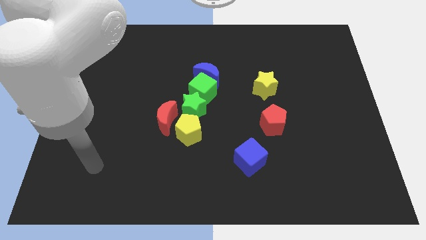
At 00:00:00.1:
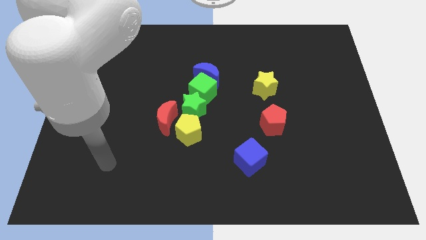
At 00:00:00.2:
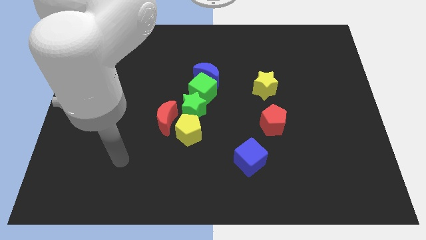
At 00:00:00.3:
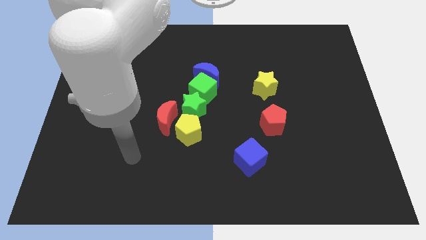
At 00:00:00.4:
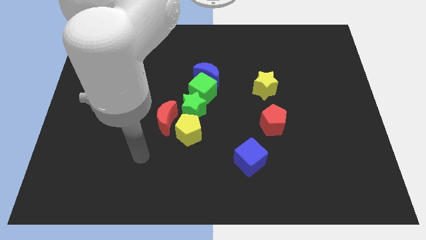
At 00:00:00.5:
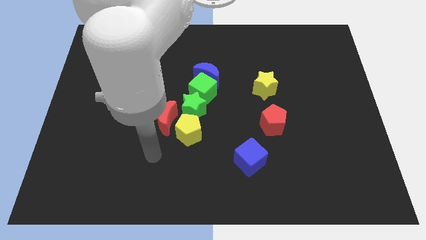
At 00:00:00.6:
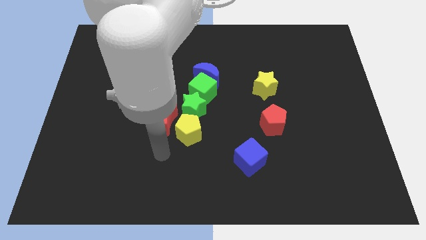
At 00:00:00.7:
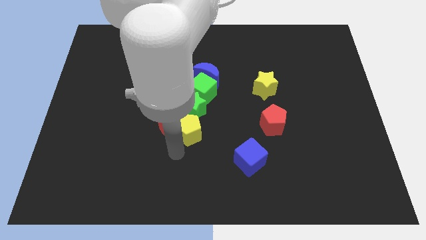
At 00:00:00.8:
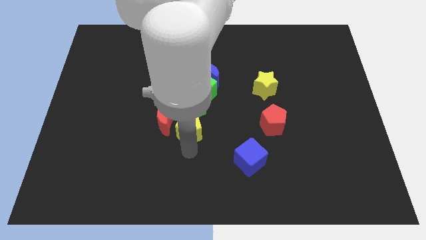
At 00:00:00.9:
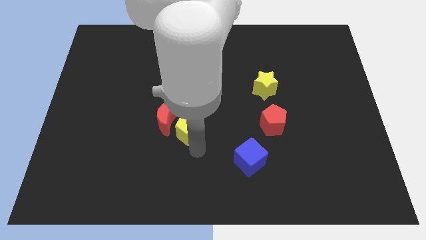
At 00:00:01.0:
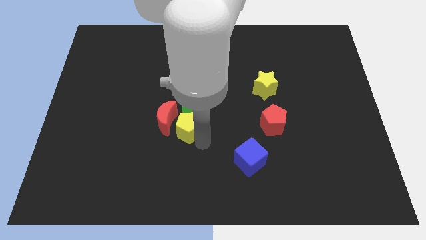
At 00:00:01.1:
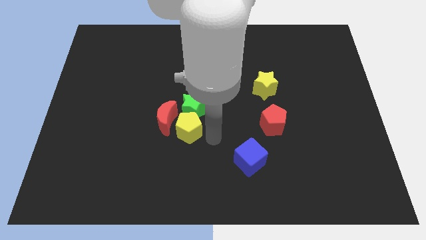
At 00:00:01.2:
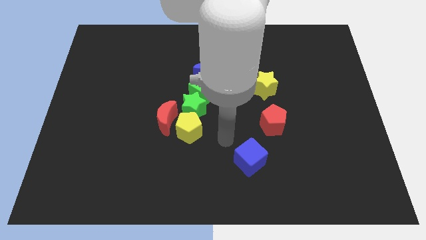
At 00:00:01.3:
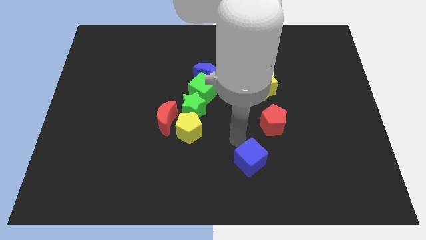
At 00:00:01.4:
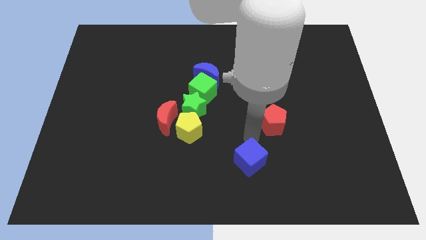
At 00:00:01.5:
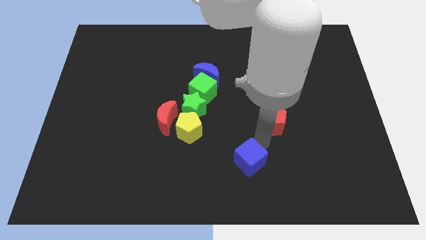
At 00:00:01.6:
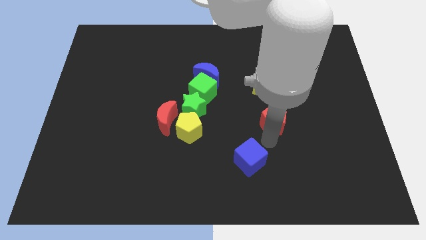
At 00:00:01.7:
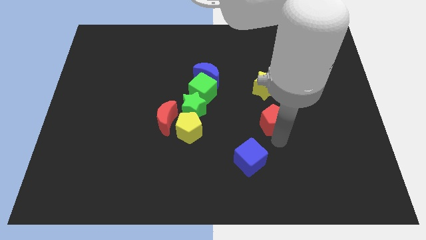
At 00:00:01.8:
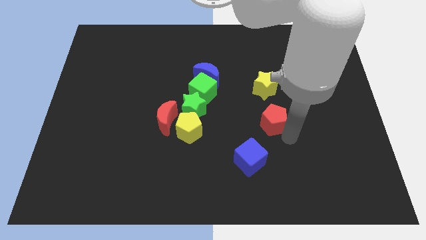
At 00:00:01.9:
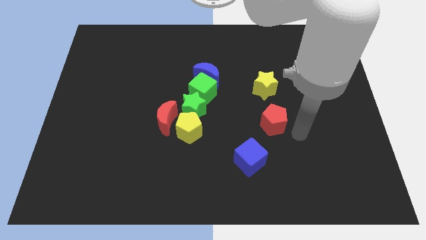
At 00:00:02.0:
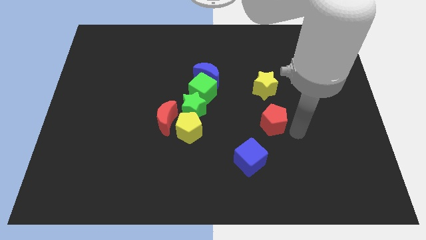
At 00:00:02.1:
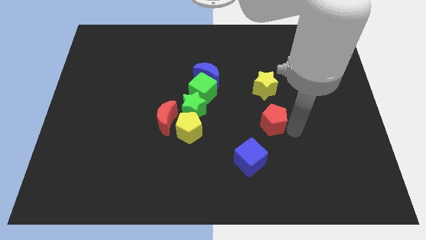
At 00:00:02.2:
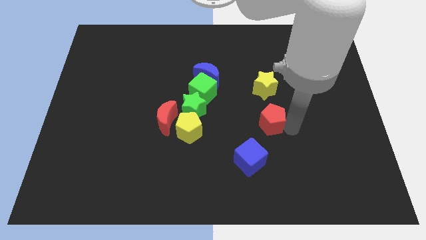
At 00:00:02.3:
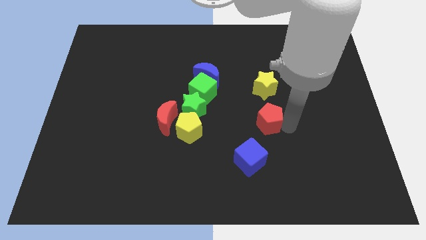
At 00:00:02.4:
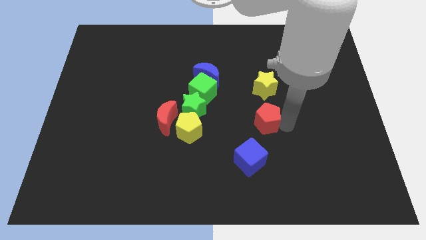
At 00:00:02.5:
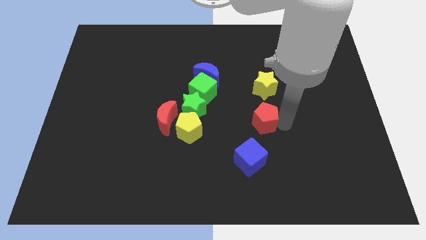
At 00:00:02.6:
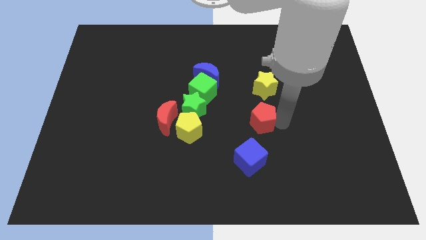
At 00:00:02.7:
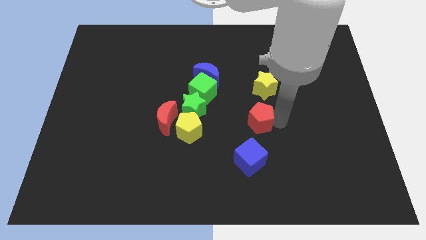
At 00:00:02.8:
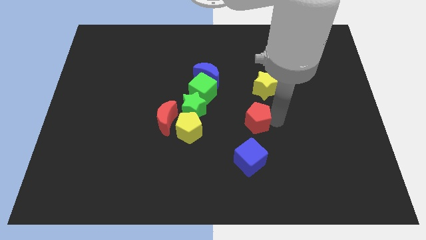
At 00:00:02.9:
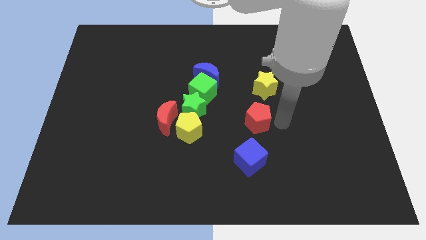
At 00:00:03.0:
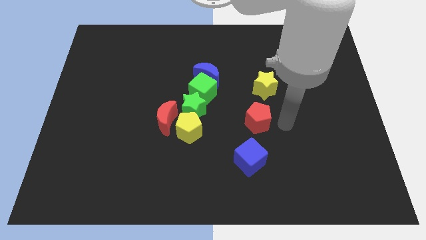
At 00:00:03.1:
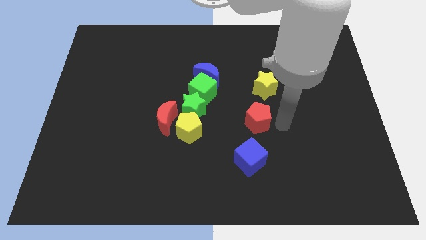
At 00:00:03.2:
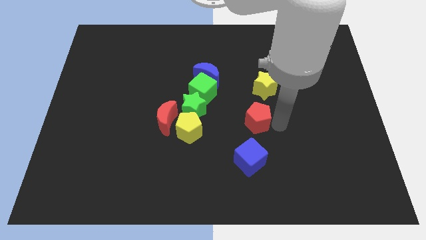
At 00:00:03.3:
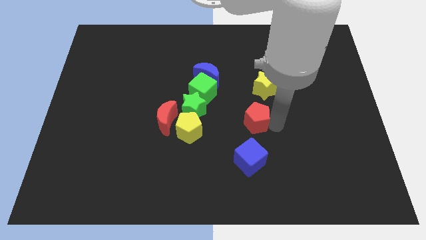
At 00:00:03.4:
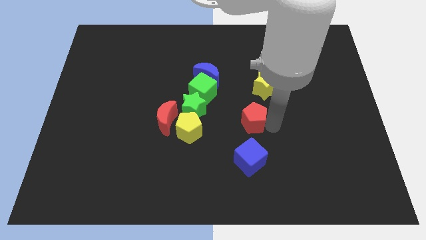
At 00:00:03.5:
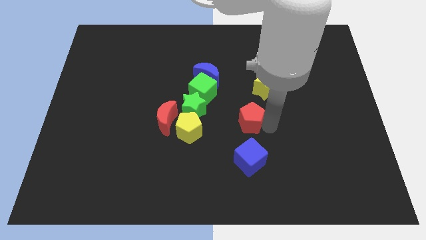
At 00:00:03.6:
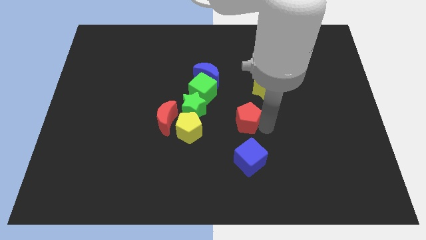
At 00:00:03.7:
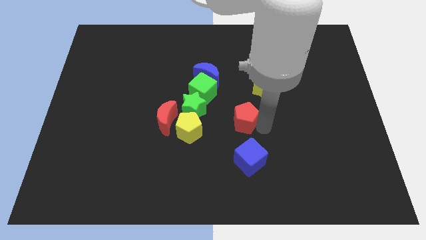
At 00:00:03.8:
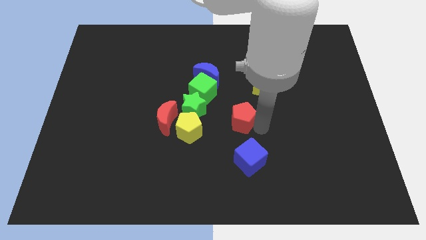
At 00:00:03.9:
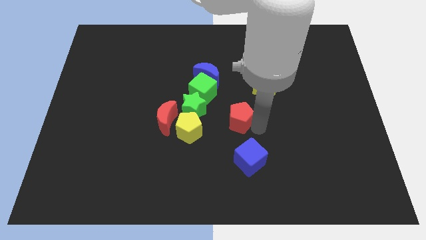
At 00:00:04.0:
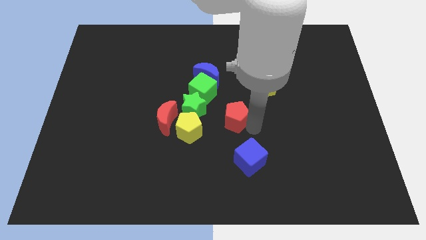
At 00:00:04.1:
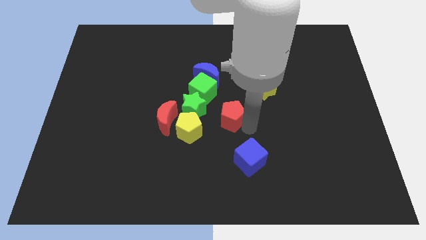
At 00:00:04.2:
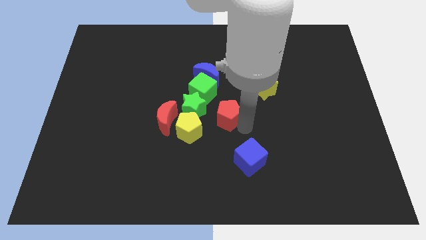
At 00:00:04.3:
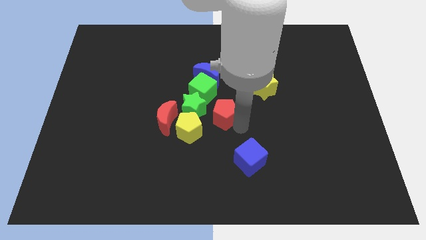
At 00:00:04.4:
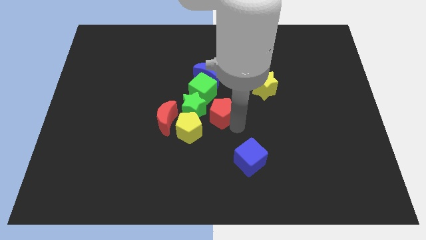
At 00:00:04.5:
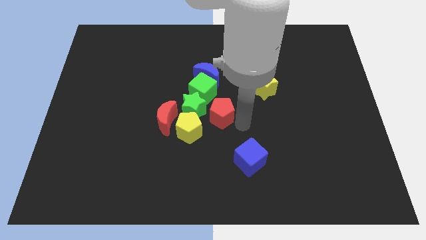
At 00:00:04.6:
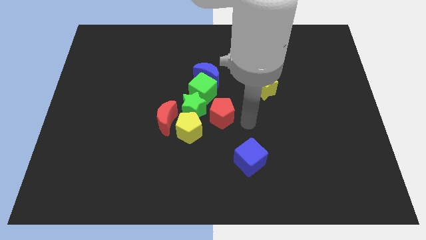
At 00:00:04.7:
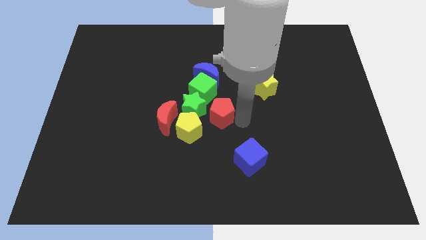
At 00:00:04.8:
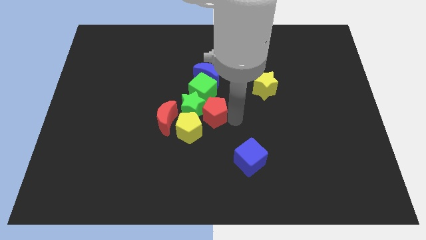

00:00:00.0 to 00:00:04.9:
move the red pentagon towards the green star

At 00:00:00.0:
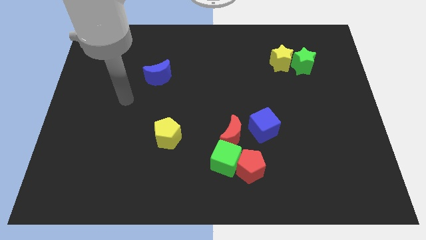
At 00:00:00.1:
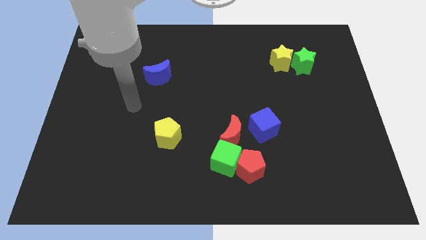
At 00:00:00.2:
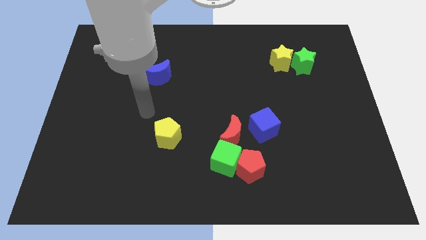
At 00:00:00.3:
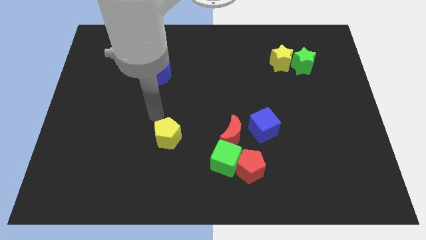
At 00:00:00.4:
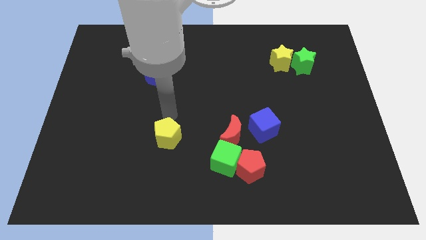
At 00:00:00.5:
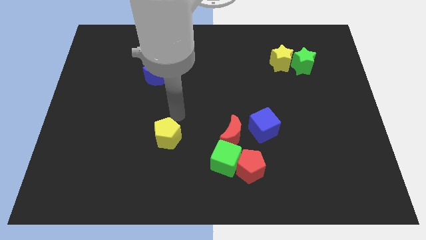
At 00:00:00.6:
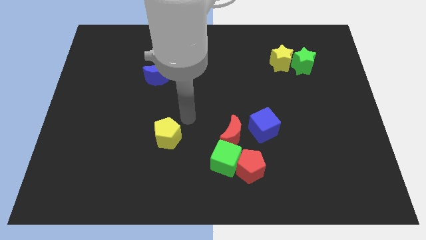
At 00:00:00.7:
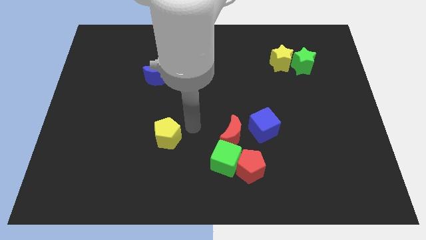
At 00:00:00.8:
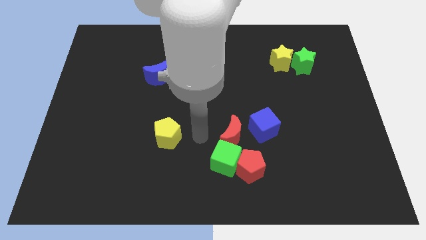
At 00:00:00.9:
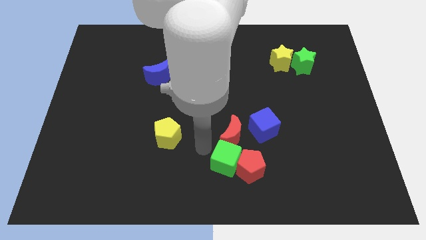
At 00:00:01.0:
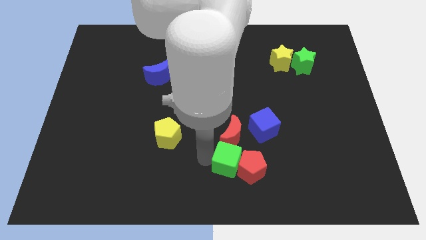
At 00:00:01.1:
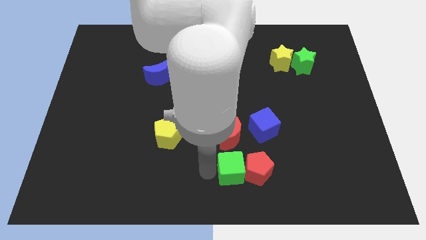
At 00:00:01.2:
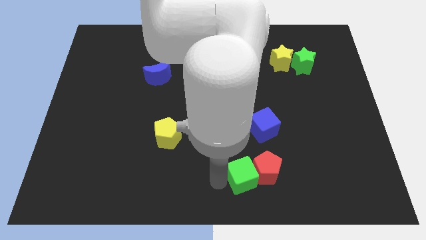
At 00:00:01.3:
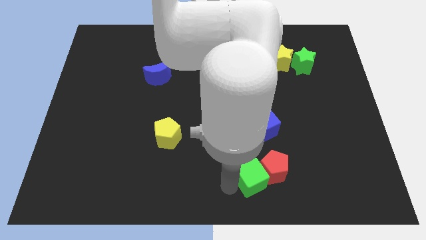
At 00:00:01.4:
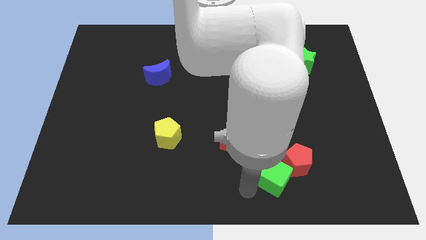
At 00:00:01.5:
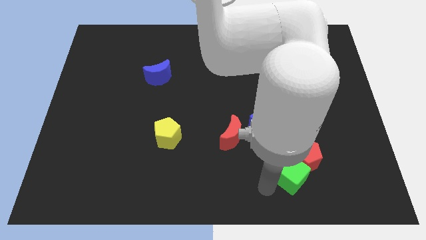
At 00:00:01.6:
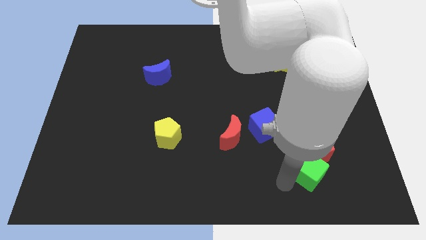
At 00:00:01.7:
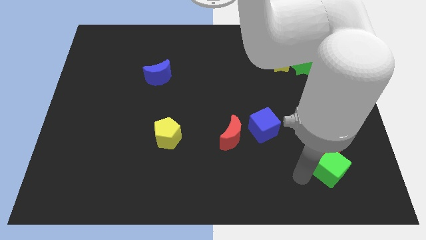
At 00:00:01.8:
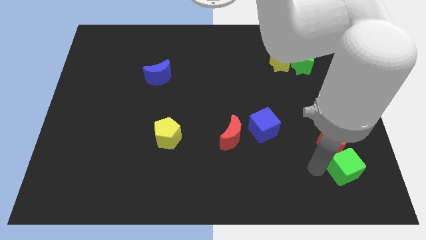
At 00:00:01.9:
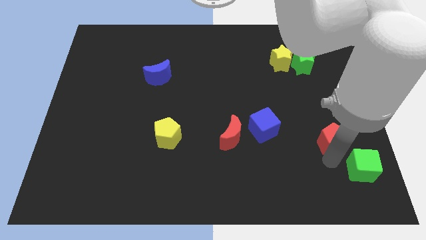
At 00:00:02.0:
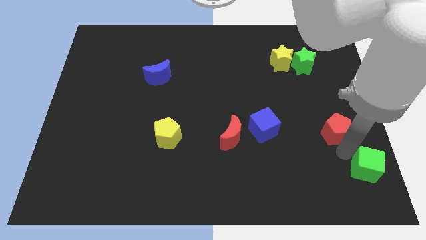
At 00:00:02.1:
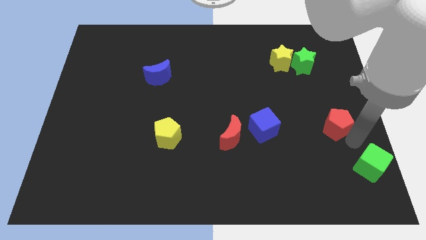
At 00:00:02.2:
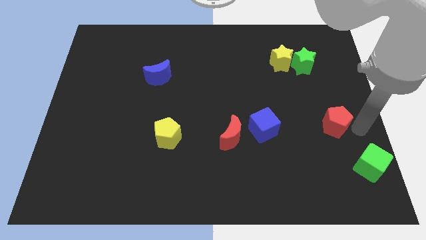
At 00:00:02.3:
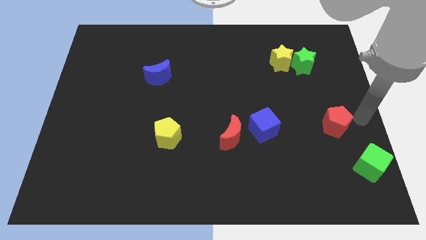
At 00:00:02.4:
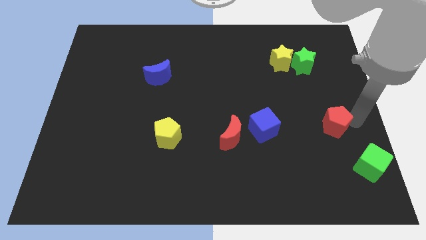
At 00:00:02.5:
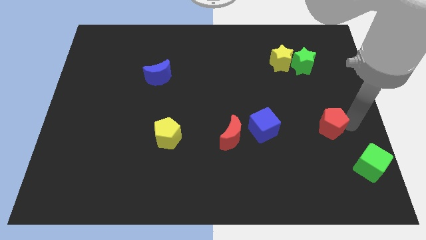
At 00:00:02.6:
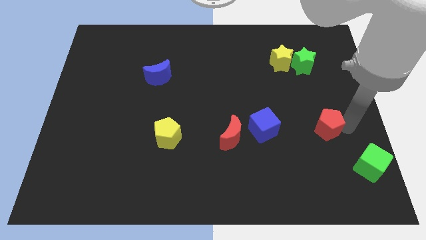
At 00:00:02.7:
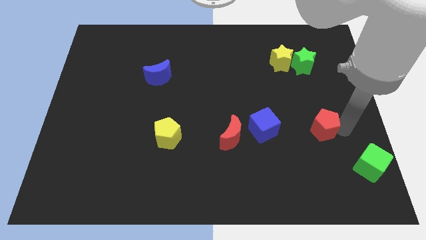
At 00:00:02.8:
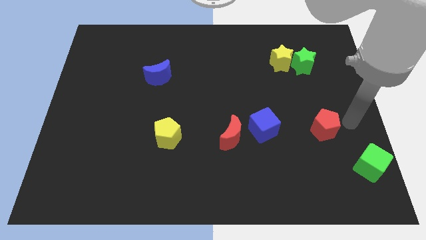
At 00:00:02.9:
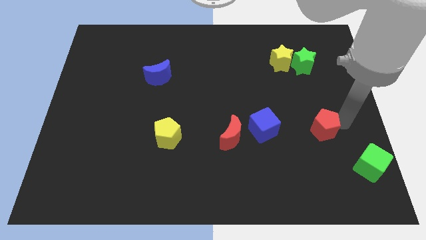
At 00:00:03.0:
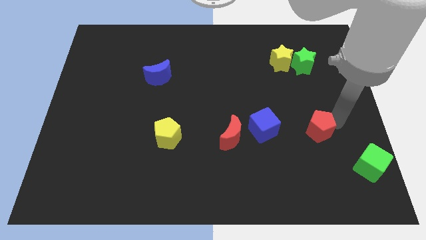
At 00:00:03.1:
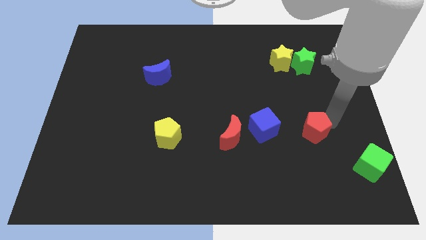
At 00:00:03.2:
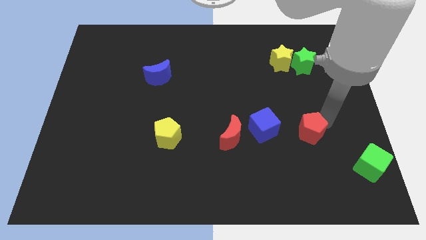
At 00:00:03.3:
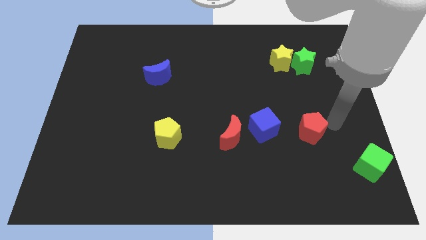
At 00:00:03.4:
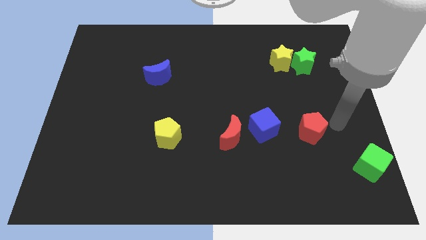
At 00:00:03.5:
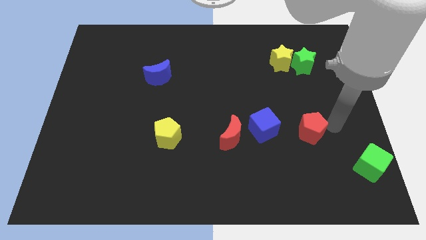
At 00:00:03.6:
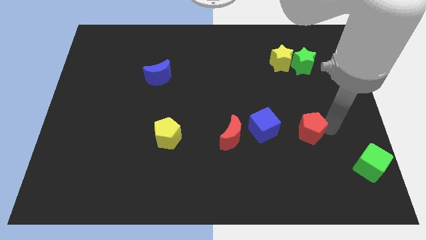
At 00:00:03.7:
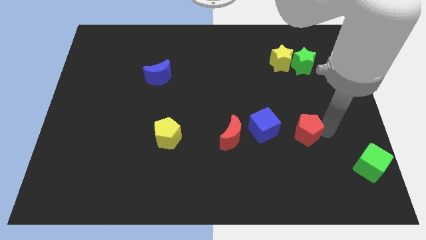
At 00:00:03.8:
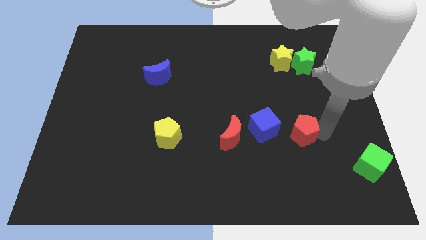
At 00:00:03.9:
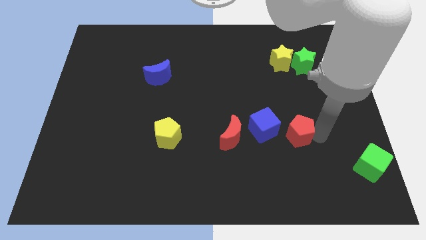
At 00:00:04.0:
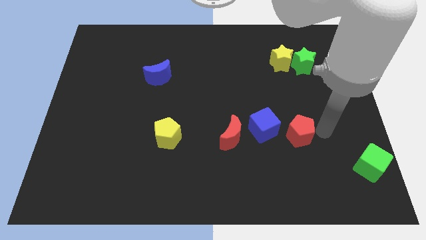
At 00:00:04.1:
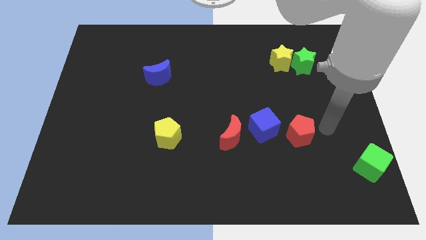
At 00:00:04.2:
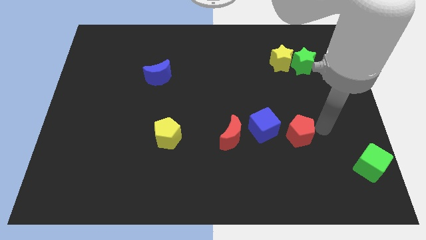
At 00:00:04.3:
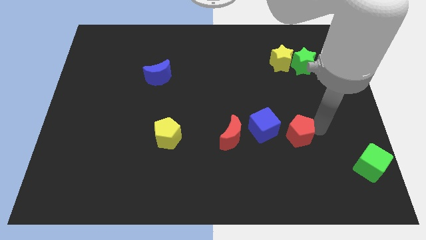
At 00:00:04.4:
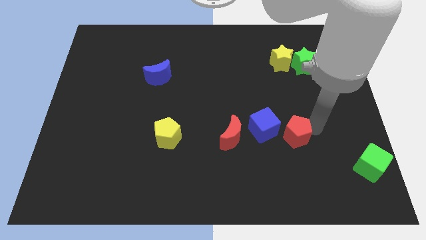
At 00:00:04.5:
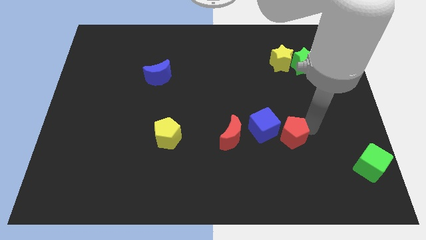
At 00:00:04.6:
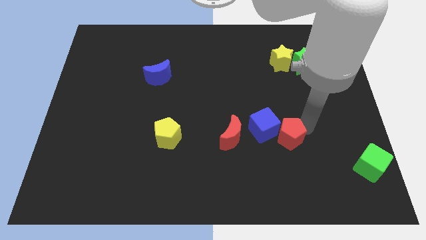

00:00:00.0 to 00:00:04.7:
put the red pentagon towards the blue cube
